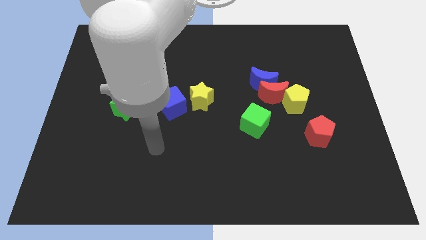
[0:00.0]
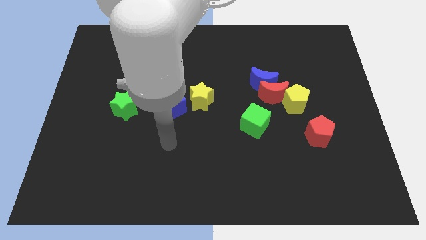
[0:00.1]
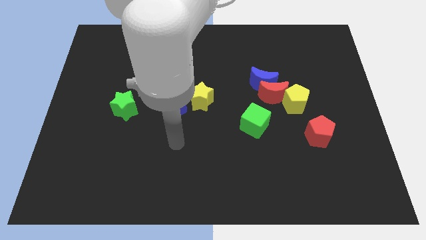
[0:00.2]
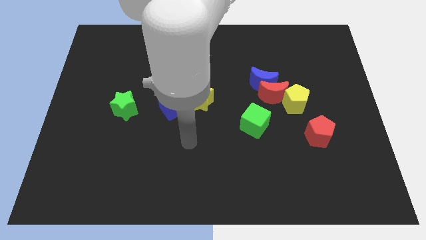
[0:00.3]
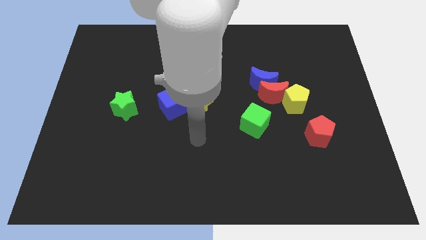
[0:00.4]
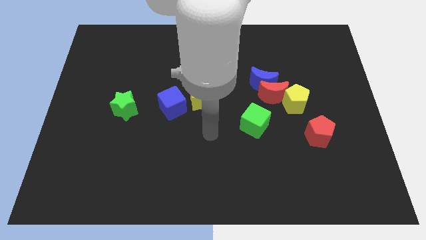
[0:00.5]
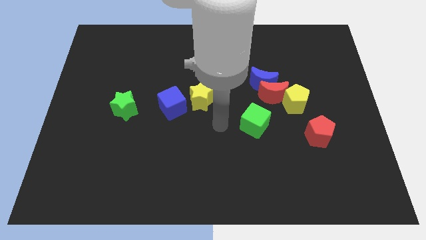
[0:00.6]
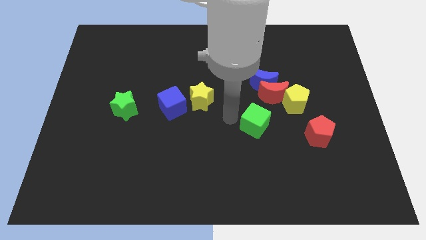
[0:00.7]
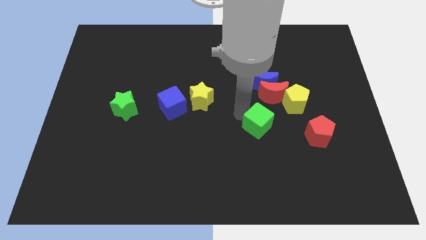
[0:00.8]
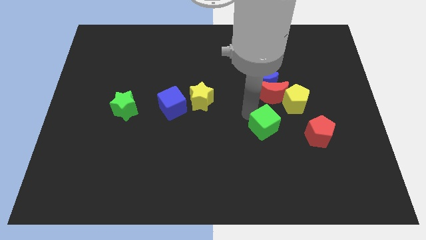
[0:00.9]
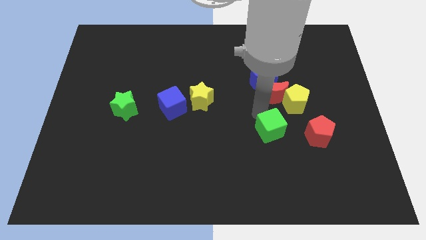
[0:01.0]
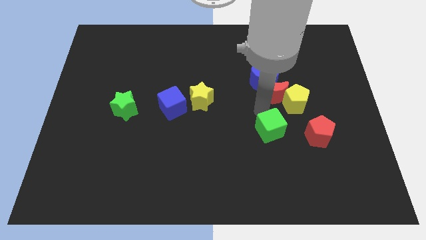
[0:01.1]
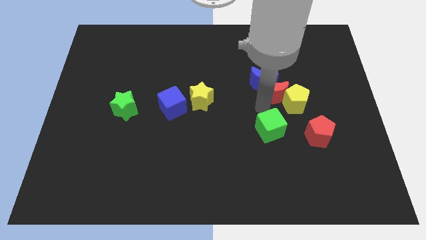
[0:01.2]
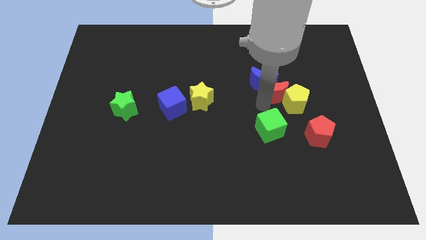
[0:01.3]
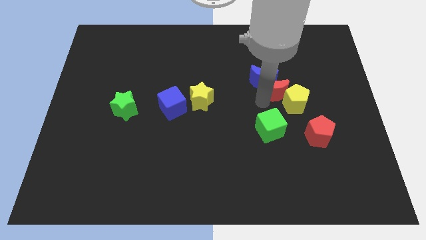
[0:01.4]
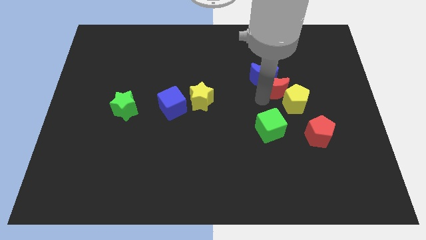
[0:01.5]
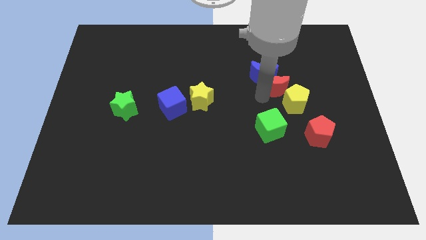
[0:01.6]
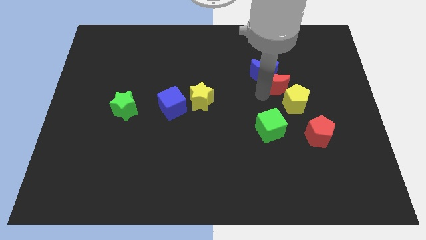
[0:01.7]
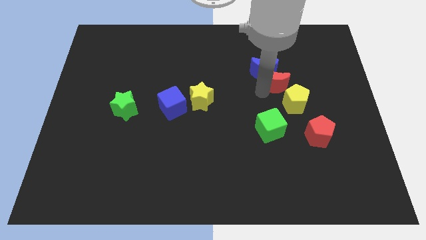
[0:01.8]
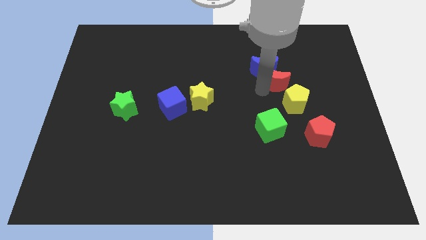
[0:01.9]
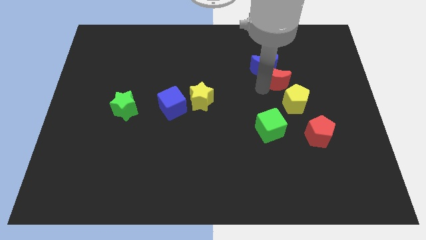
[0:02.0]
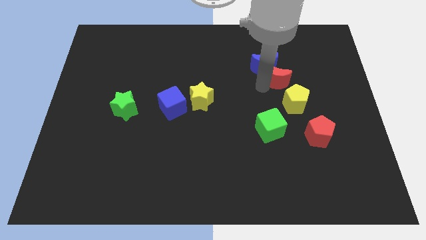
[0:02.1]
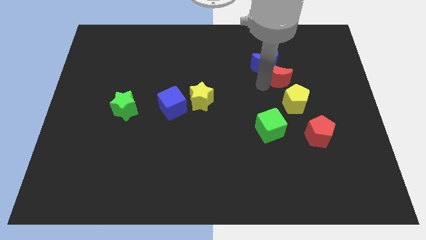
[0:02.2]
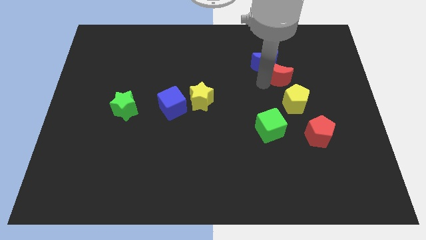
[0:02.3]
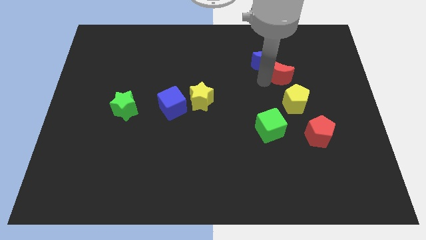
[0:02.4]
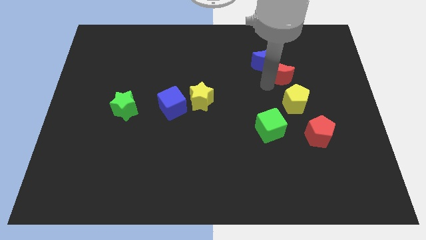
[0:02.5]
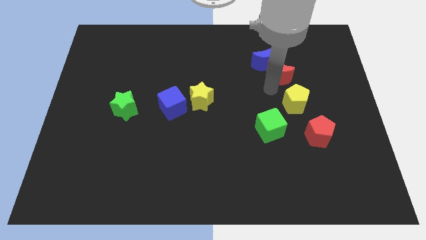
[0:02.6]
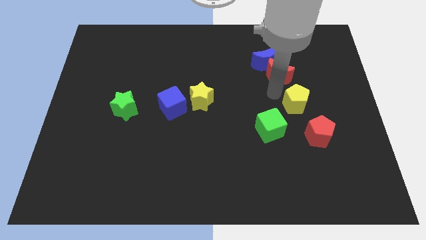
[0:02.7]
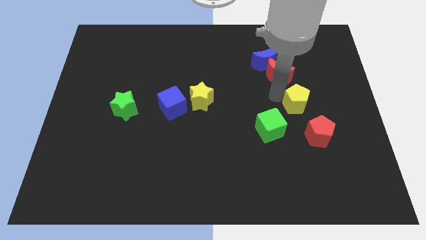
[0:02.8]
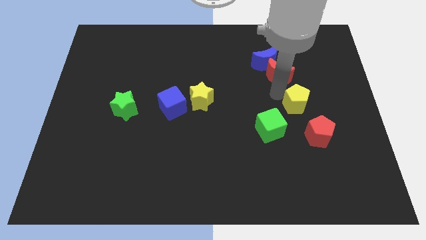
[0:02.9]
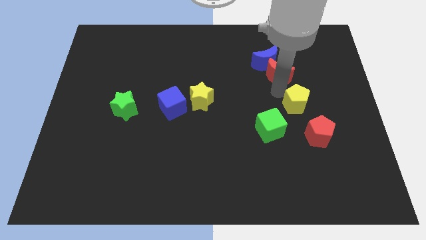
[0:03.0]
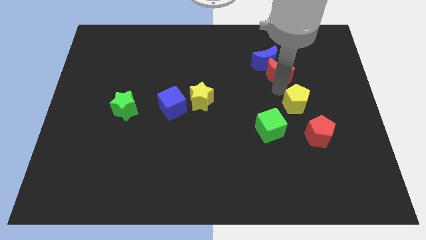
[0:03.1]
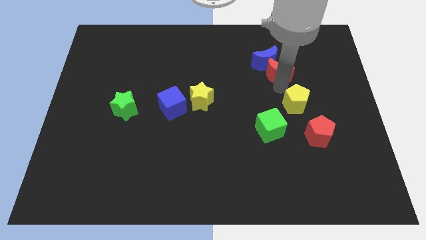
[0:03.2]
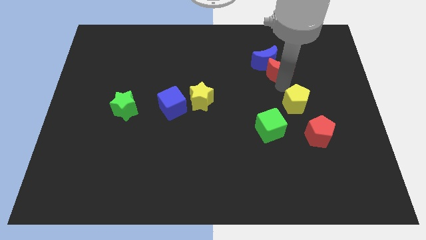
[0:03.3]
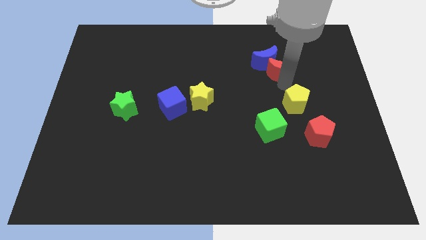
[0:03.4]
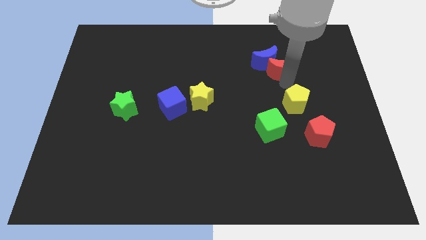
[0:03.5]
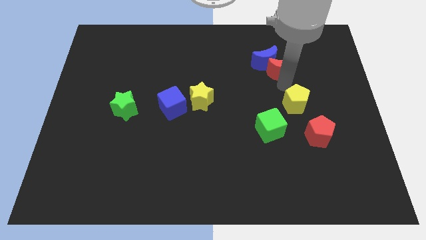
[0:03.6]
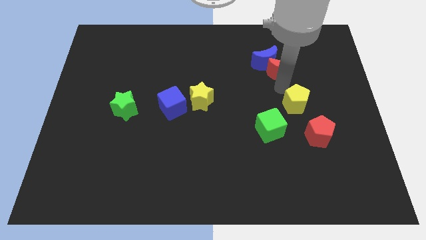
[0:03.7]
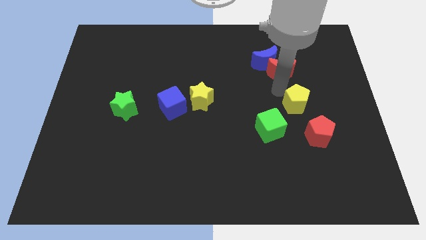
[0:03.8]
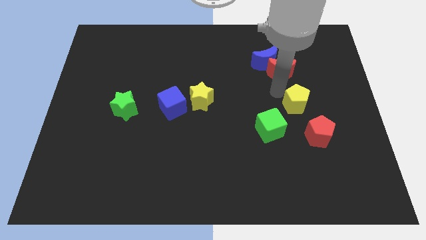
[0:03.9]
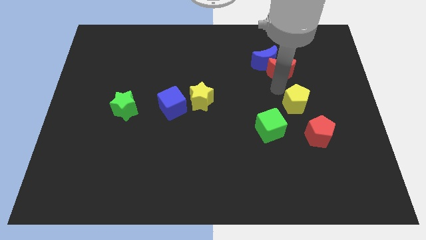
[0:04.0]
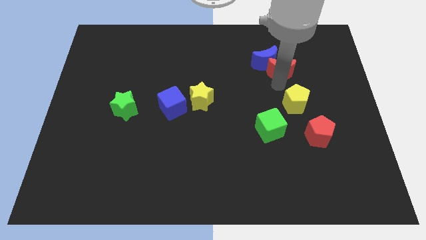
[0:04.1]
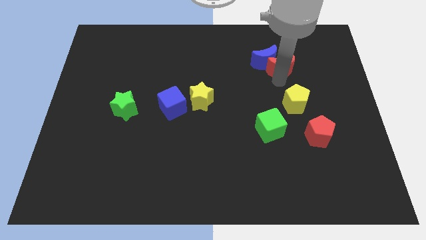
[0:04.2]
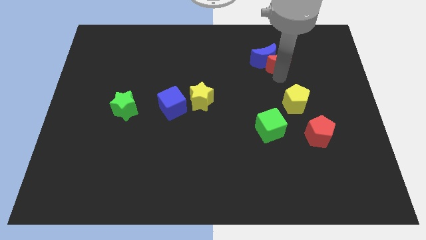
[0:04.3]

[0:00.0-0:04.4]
separate the red moon from the clump

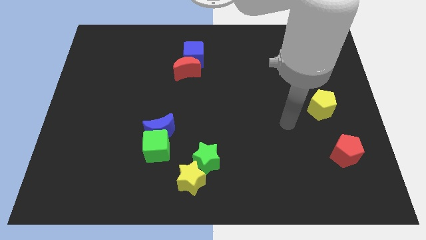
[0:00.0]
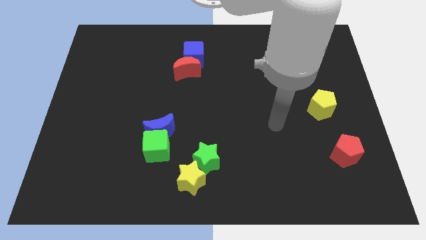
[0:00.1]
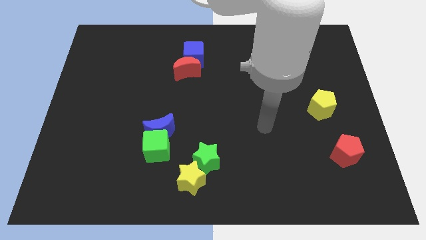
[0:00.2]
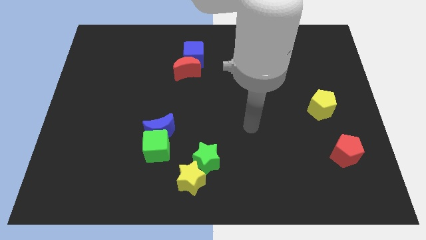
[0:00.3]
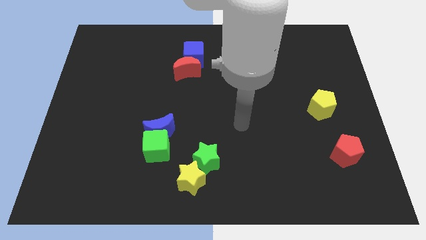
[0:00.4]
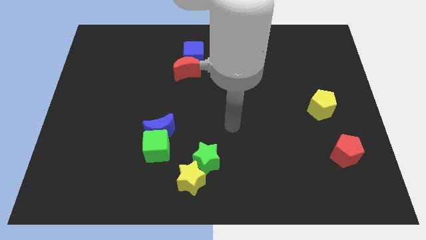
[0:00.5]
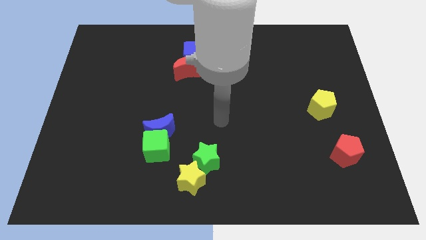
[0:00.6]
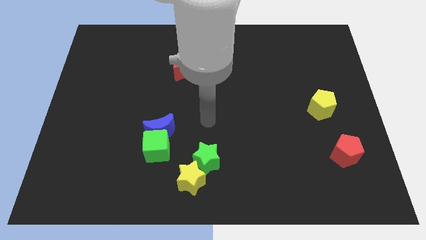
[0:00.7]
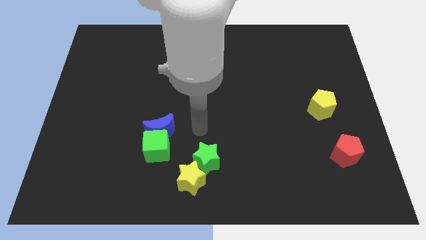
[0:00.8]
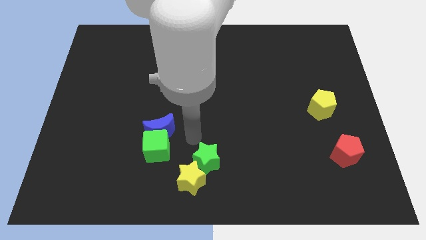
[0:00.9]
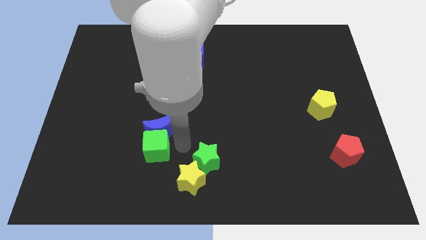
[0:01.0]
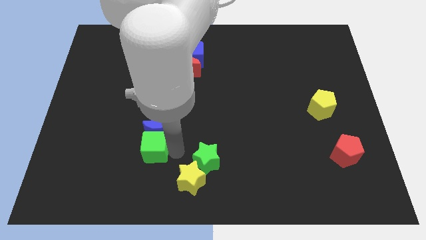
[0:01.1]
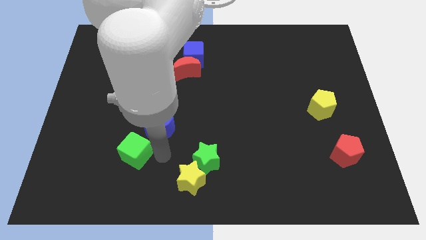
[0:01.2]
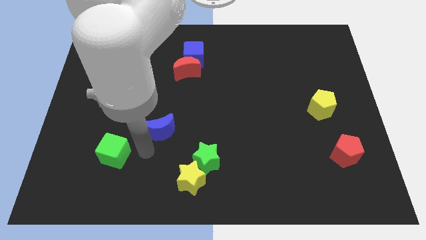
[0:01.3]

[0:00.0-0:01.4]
pull the blue moon apart from the green cube

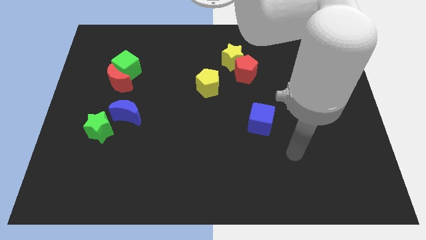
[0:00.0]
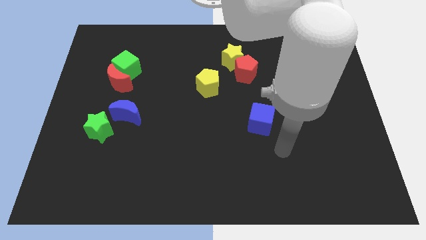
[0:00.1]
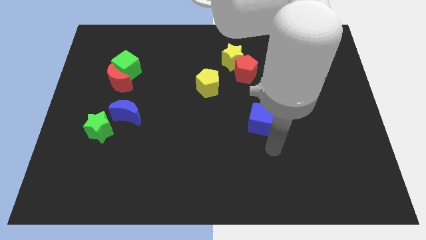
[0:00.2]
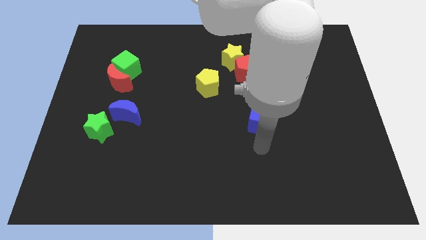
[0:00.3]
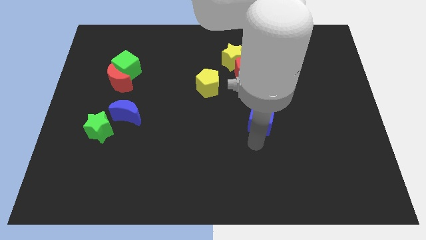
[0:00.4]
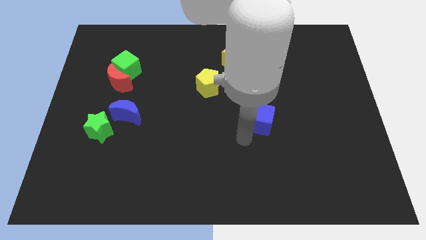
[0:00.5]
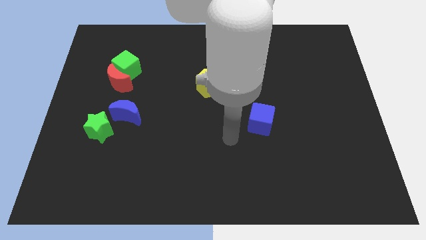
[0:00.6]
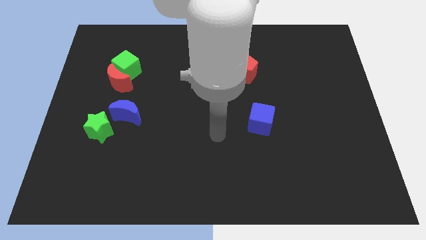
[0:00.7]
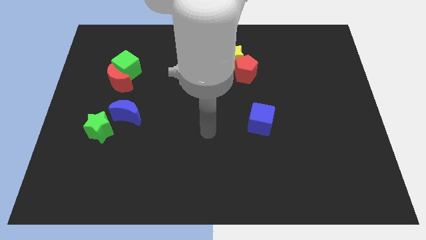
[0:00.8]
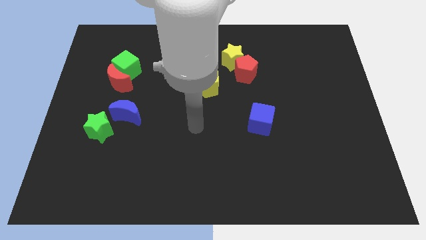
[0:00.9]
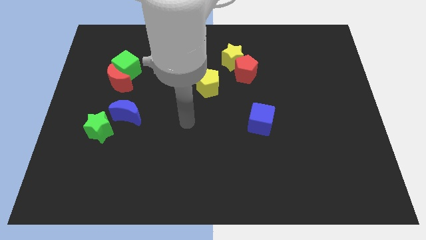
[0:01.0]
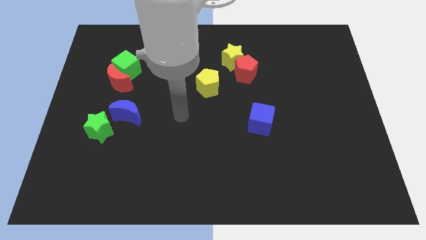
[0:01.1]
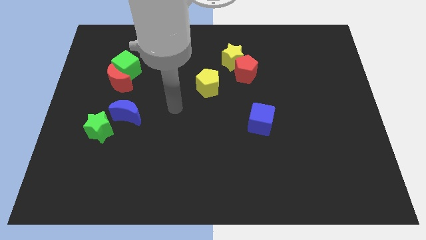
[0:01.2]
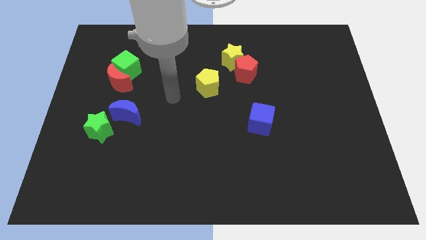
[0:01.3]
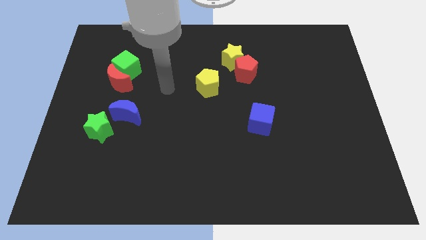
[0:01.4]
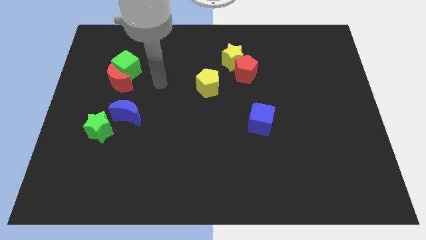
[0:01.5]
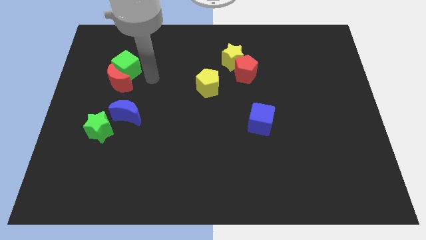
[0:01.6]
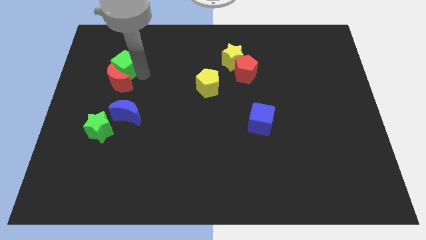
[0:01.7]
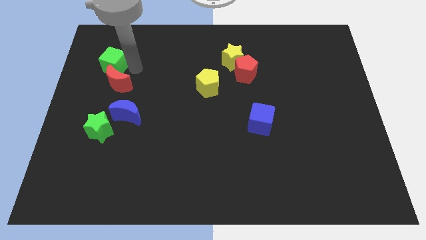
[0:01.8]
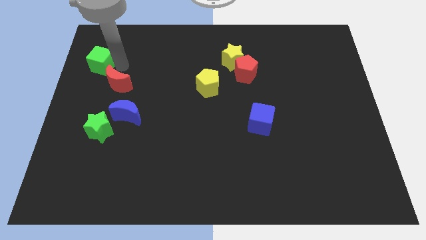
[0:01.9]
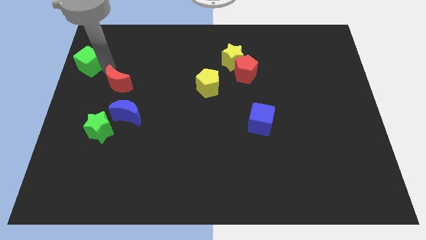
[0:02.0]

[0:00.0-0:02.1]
pull the red moon apart from the green cube

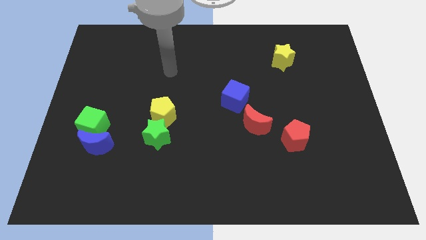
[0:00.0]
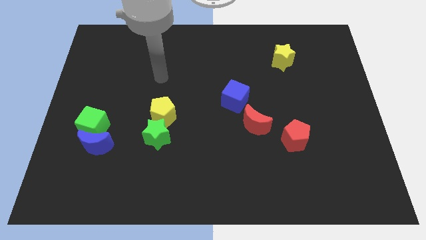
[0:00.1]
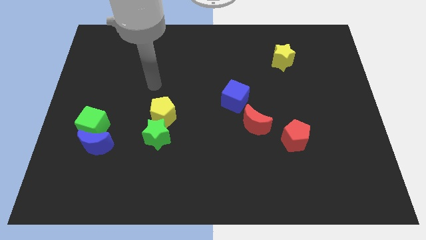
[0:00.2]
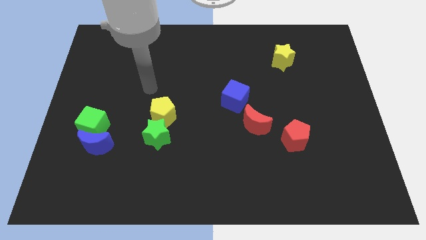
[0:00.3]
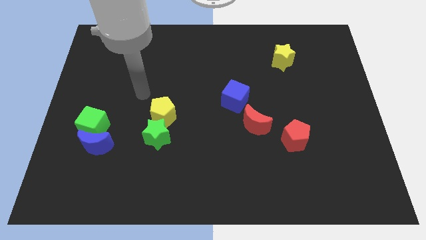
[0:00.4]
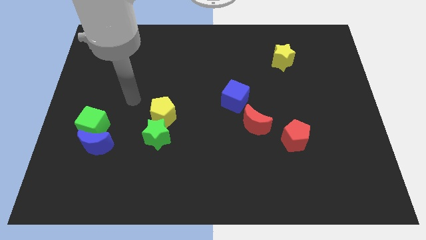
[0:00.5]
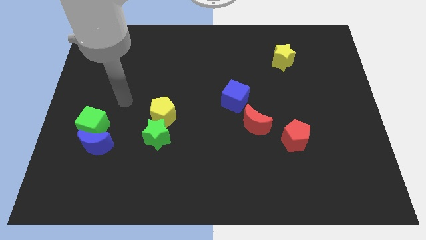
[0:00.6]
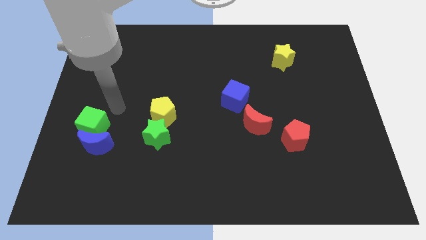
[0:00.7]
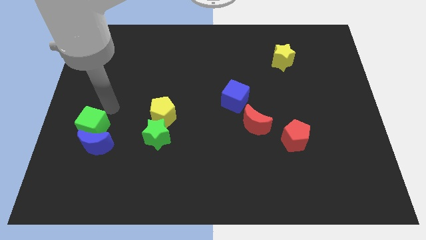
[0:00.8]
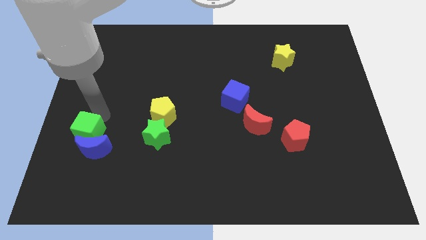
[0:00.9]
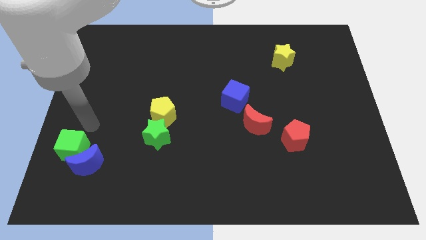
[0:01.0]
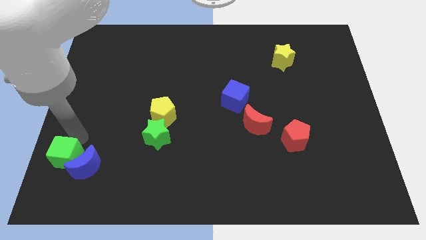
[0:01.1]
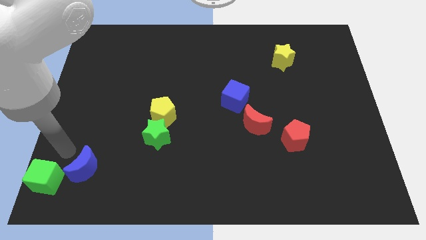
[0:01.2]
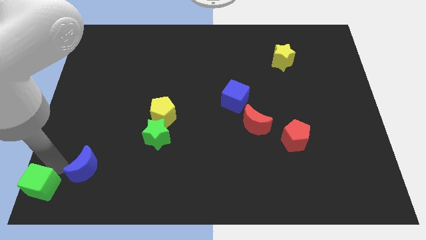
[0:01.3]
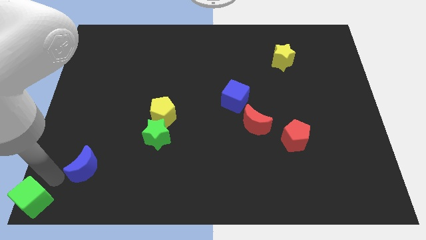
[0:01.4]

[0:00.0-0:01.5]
separate the blue moon from the green cube
